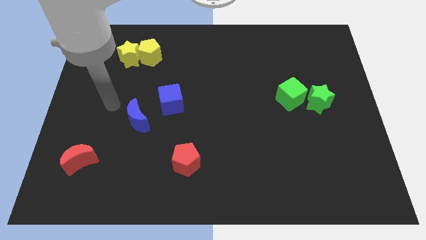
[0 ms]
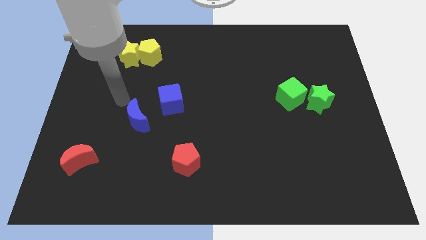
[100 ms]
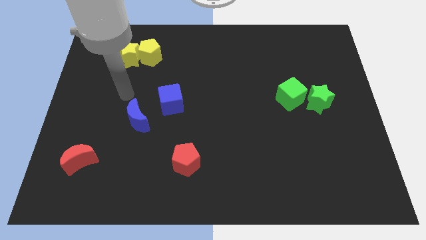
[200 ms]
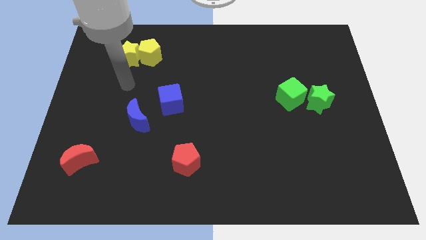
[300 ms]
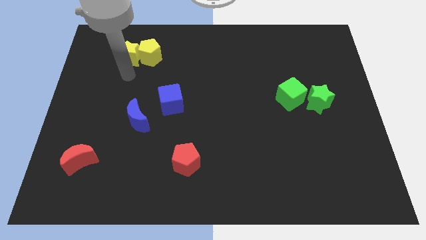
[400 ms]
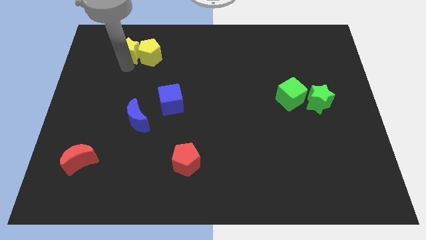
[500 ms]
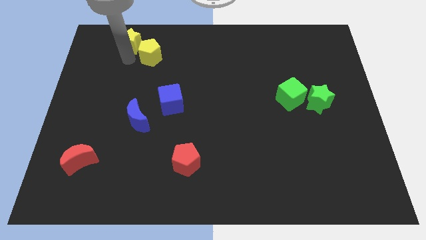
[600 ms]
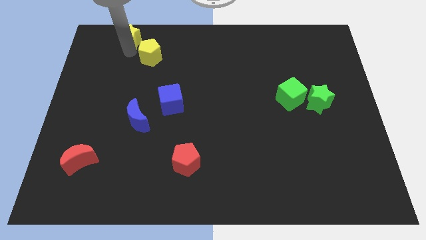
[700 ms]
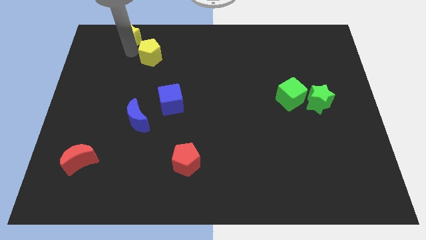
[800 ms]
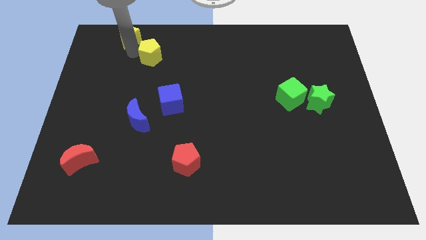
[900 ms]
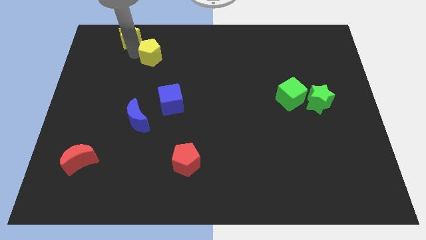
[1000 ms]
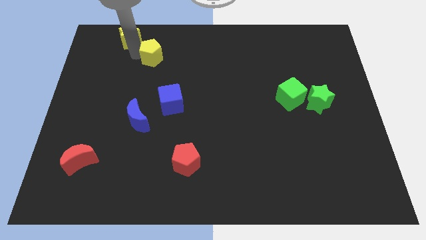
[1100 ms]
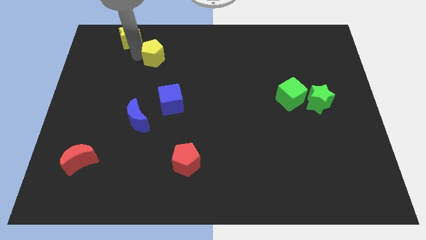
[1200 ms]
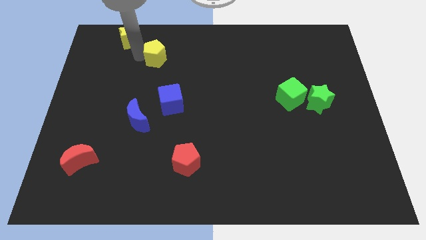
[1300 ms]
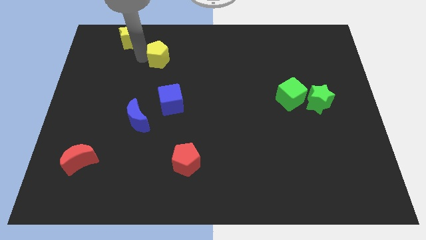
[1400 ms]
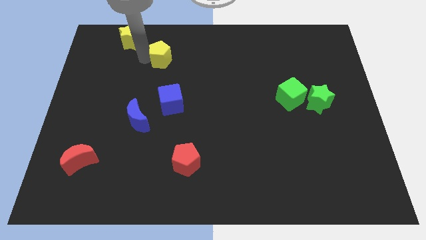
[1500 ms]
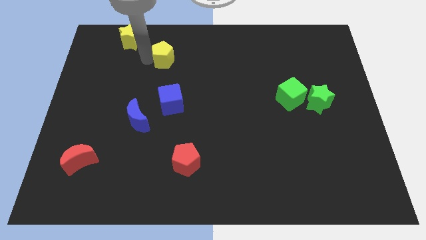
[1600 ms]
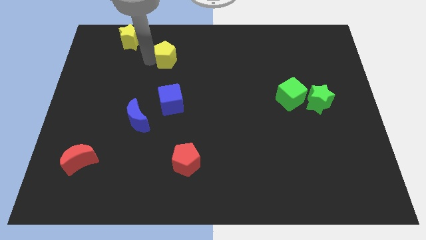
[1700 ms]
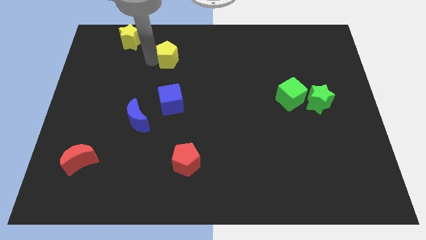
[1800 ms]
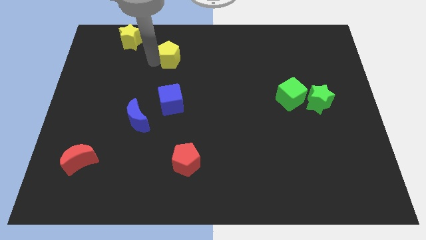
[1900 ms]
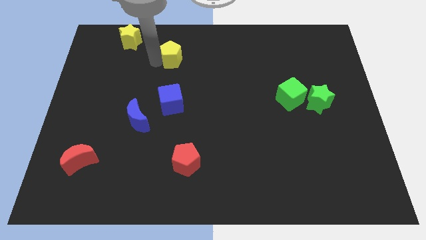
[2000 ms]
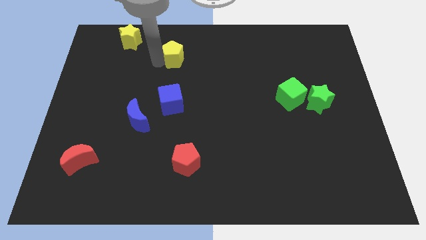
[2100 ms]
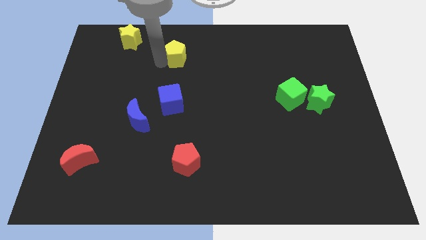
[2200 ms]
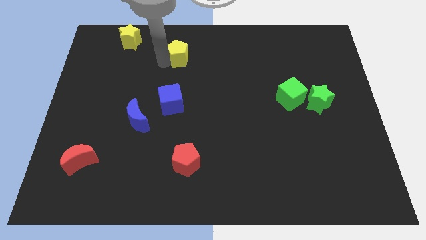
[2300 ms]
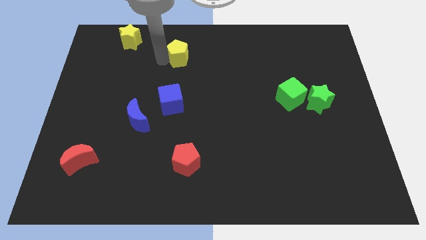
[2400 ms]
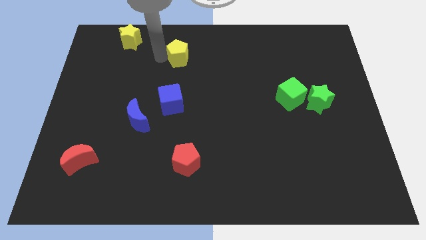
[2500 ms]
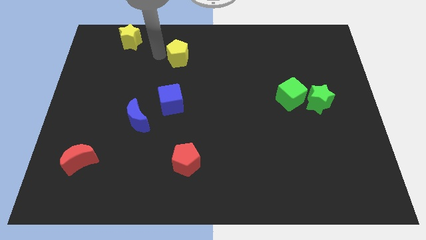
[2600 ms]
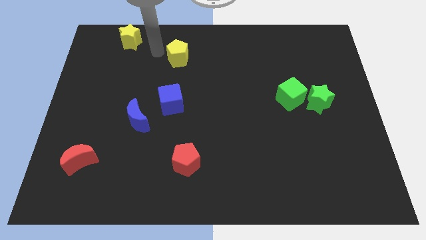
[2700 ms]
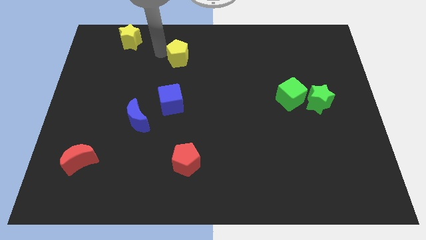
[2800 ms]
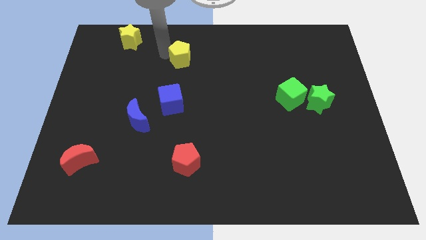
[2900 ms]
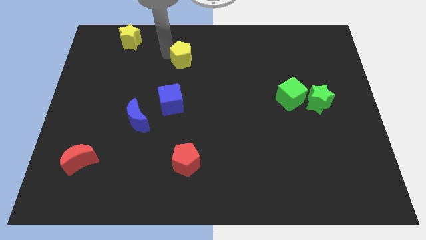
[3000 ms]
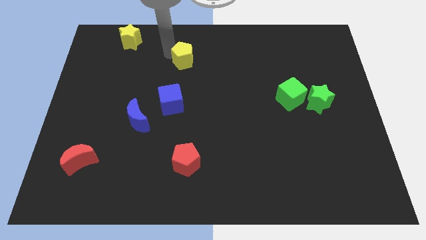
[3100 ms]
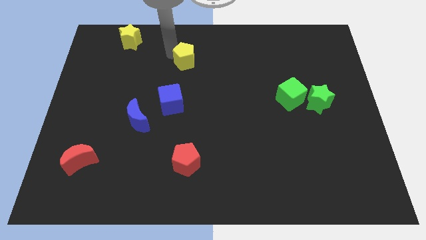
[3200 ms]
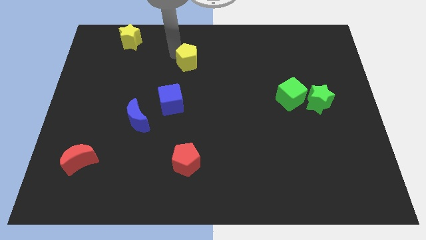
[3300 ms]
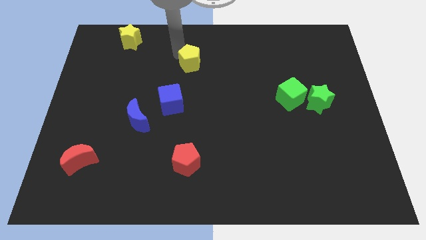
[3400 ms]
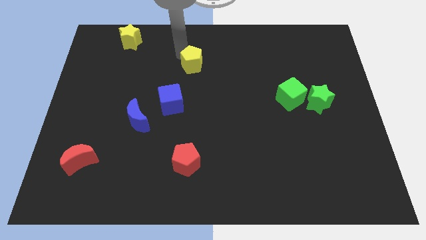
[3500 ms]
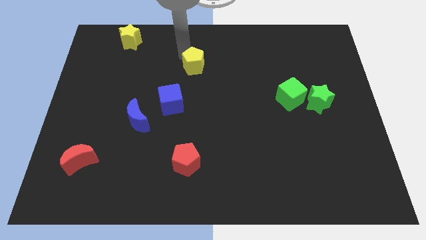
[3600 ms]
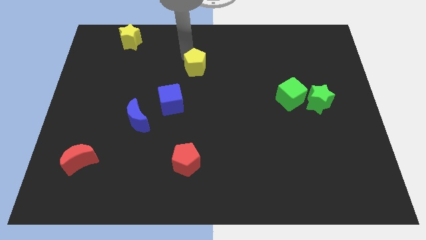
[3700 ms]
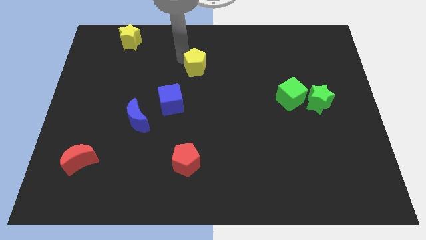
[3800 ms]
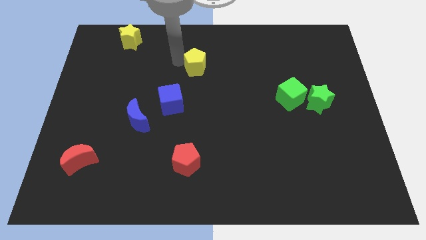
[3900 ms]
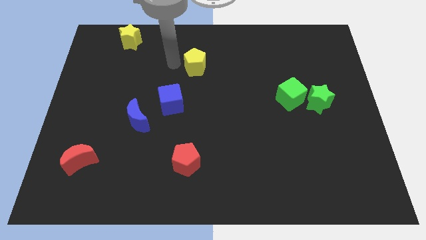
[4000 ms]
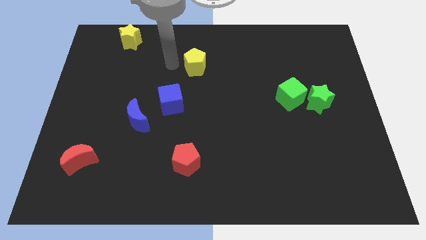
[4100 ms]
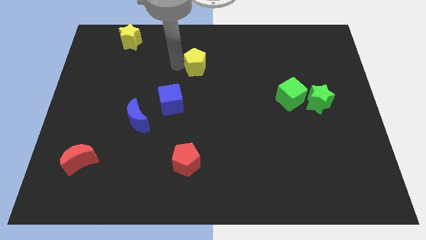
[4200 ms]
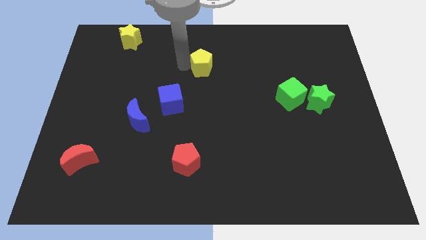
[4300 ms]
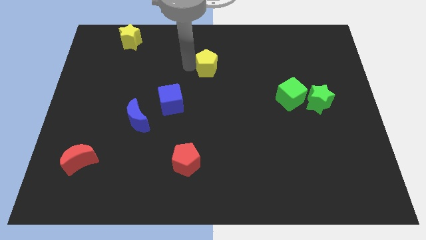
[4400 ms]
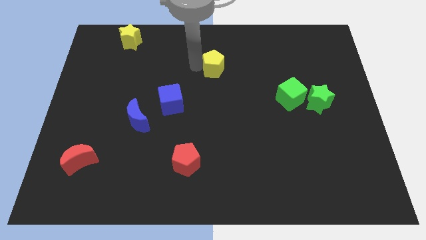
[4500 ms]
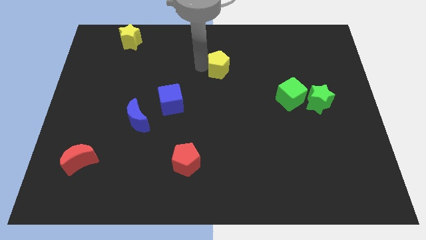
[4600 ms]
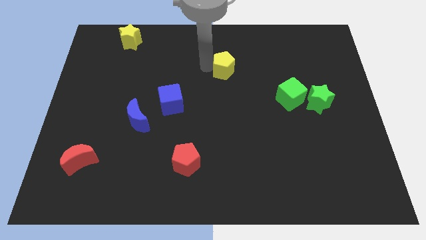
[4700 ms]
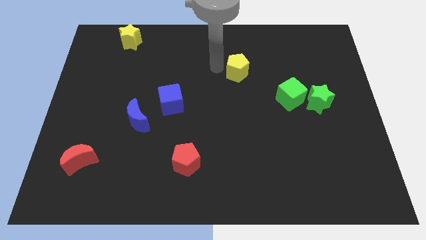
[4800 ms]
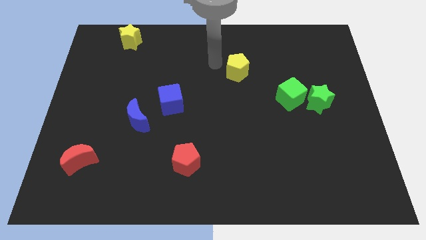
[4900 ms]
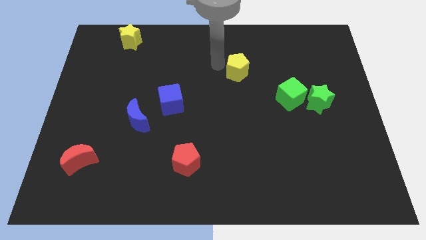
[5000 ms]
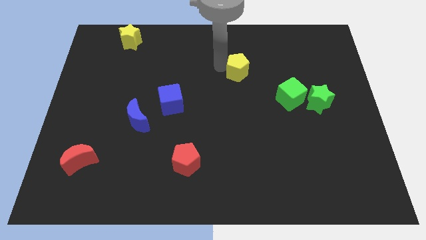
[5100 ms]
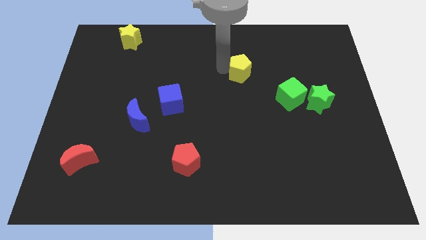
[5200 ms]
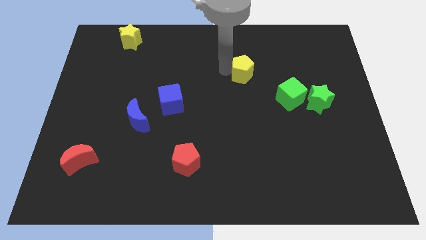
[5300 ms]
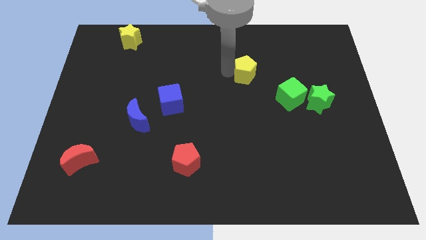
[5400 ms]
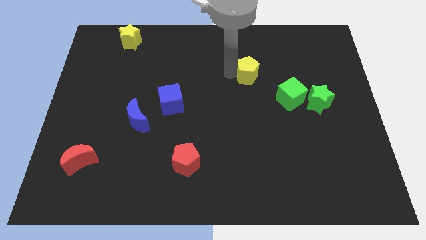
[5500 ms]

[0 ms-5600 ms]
push the yellow pentagon to the top left side of the green cube
